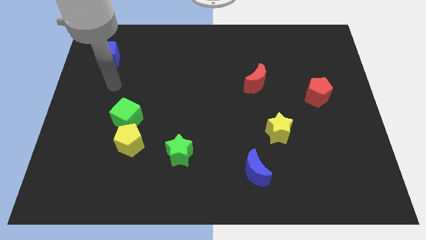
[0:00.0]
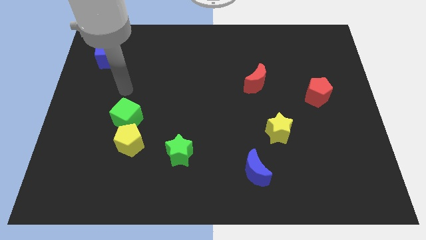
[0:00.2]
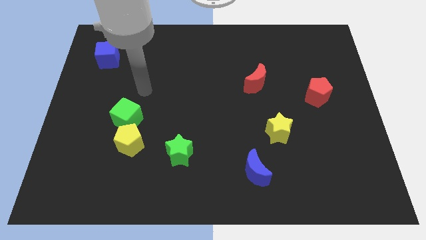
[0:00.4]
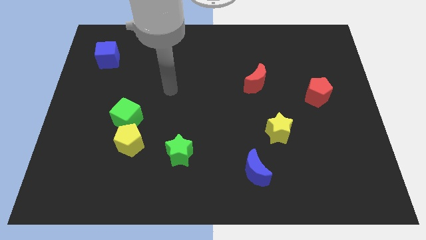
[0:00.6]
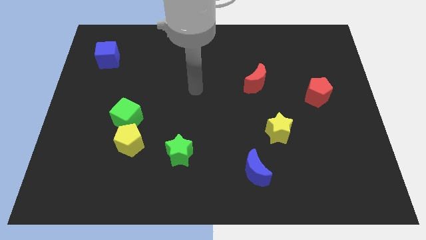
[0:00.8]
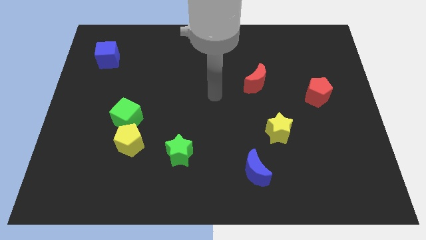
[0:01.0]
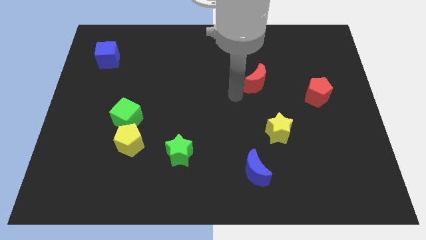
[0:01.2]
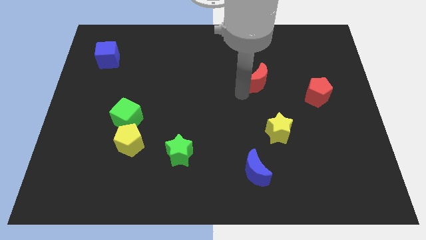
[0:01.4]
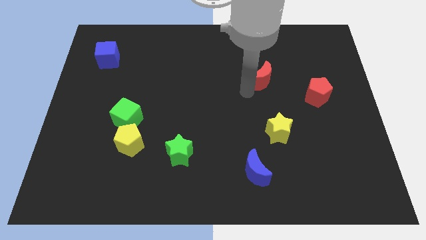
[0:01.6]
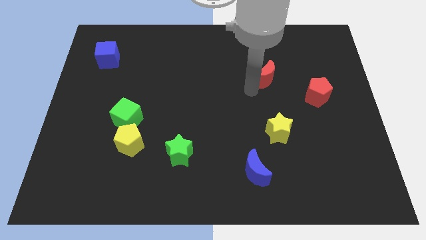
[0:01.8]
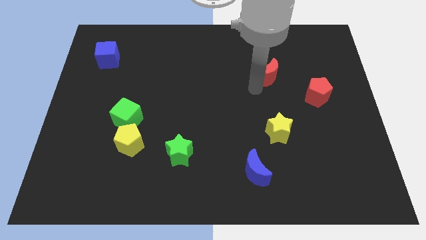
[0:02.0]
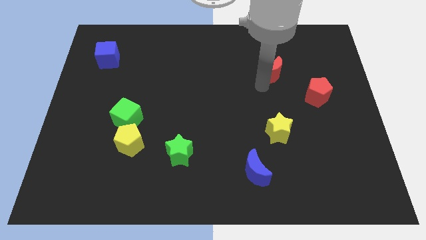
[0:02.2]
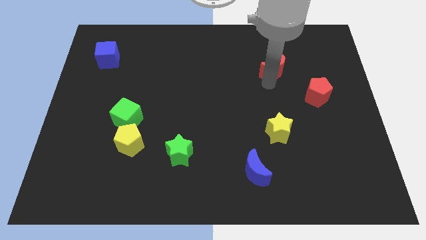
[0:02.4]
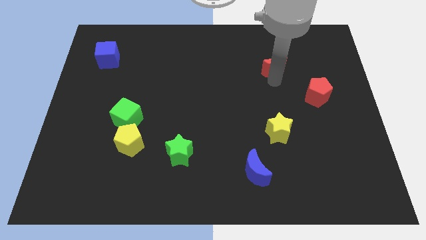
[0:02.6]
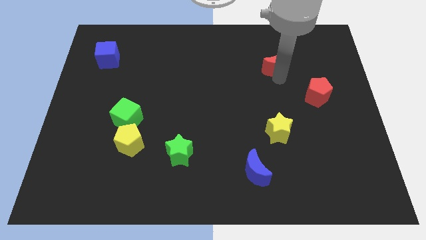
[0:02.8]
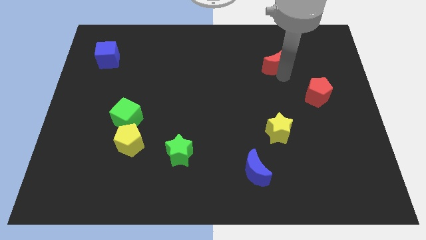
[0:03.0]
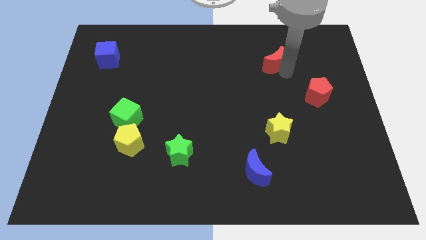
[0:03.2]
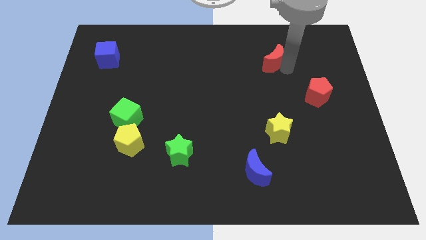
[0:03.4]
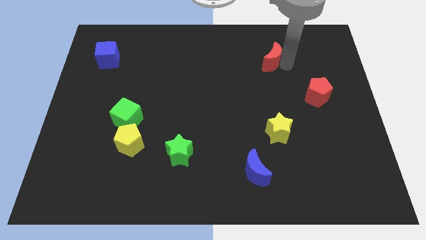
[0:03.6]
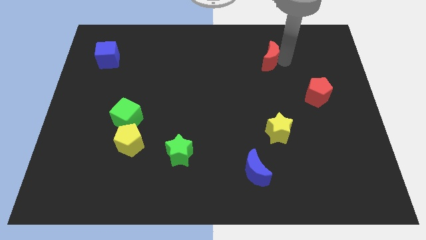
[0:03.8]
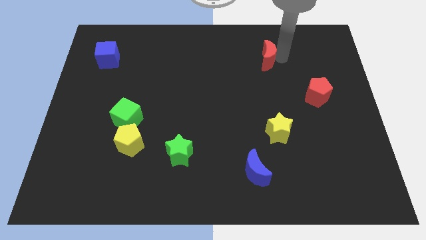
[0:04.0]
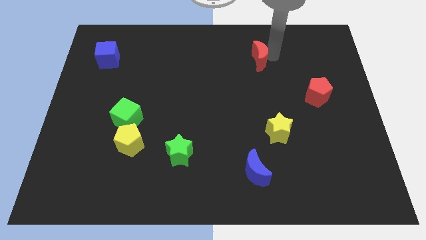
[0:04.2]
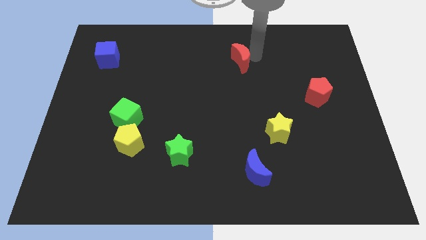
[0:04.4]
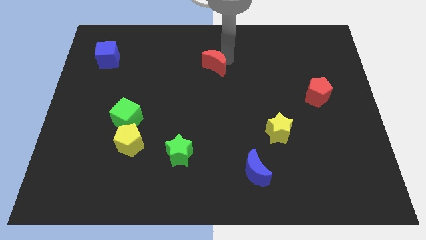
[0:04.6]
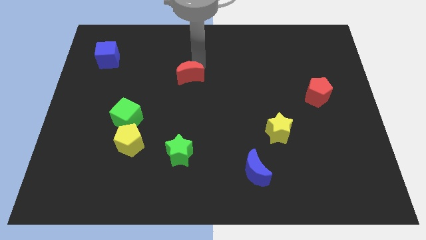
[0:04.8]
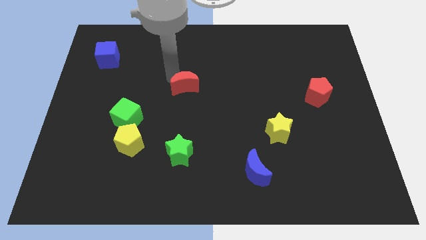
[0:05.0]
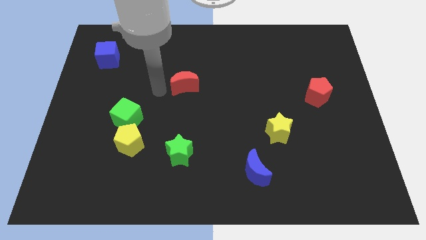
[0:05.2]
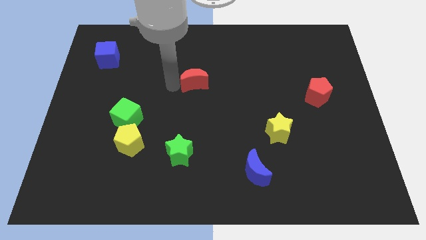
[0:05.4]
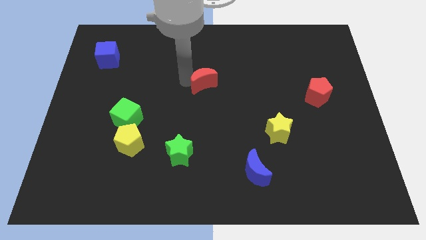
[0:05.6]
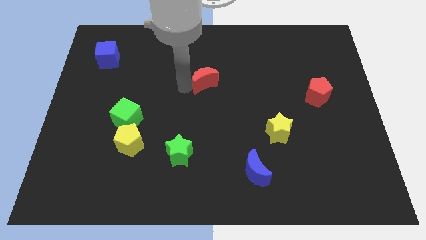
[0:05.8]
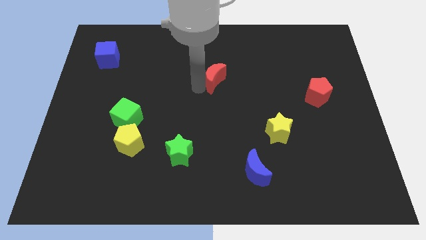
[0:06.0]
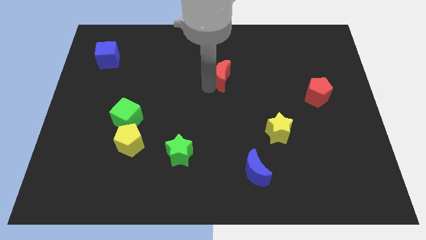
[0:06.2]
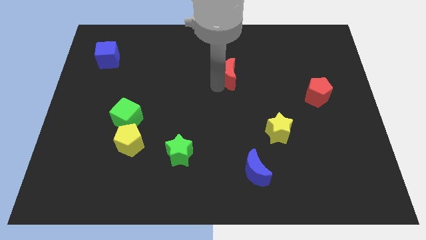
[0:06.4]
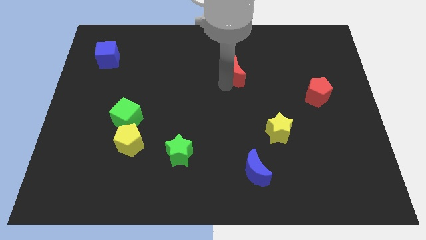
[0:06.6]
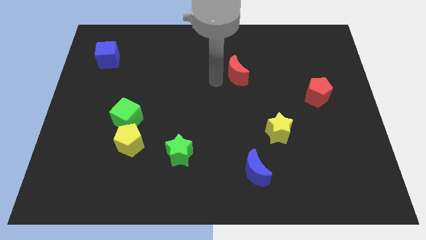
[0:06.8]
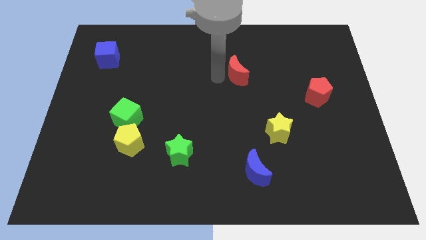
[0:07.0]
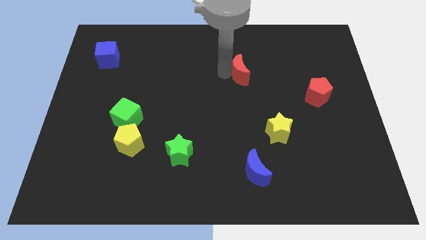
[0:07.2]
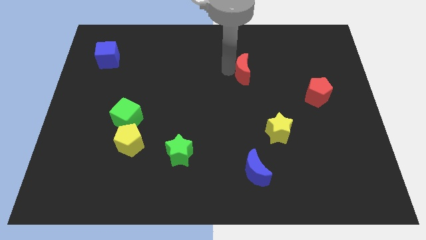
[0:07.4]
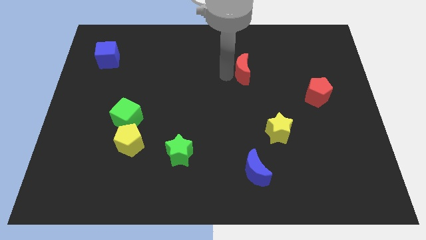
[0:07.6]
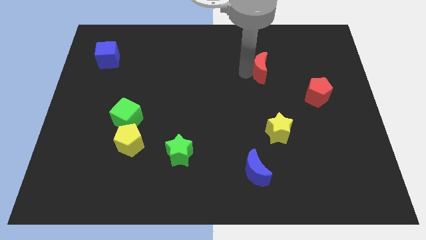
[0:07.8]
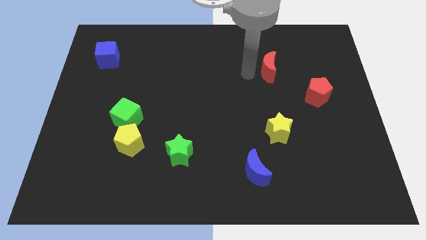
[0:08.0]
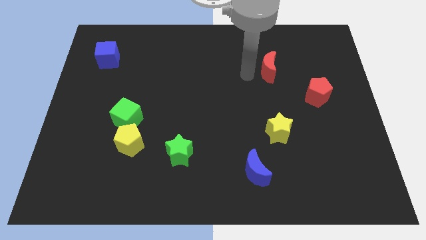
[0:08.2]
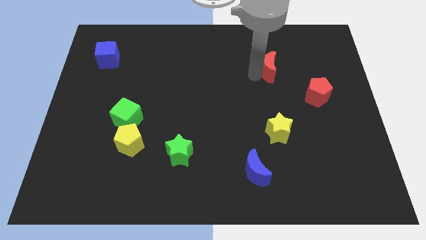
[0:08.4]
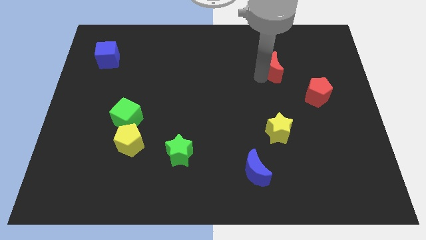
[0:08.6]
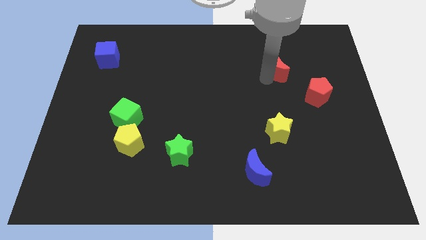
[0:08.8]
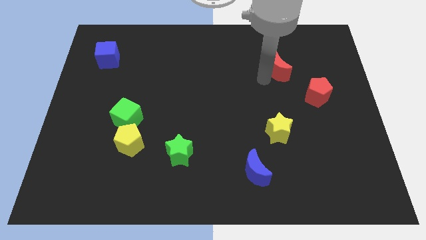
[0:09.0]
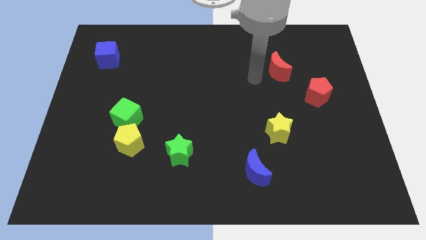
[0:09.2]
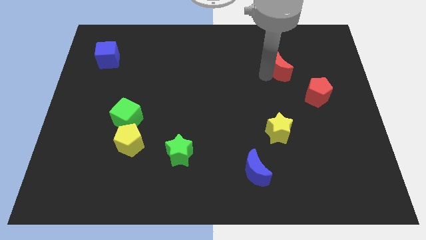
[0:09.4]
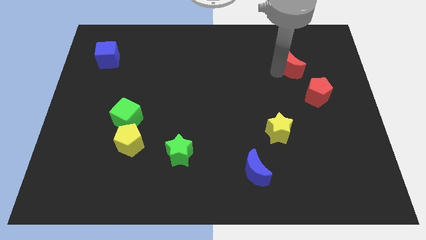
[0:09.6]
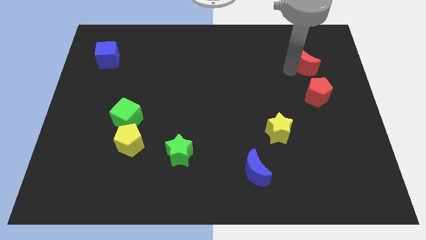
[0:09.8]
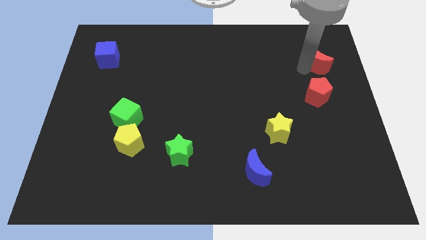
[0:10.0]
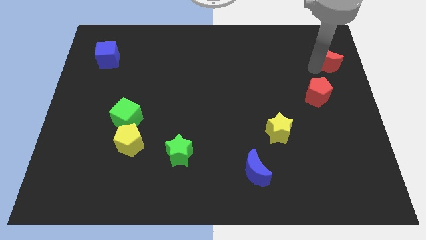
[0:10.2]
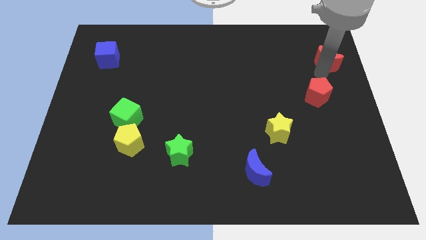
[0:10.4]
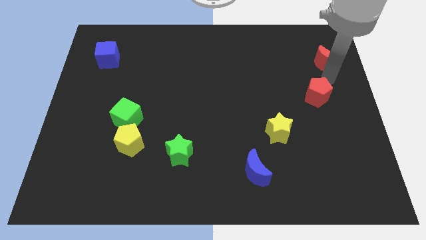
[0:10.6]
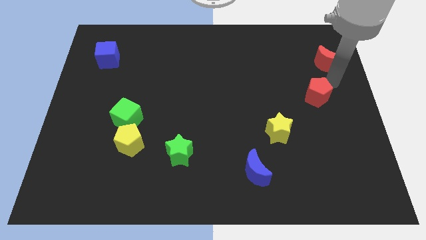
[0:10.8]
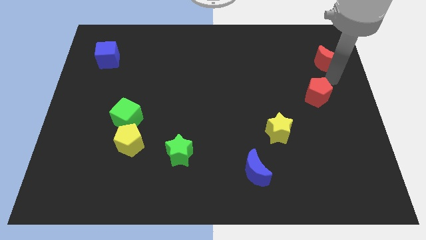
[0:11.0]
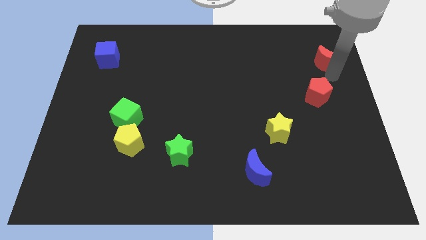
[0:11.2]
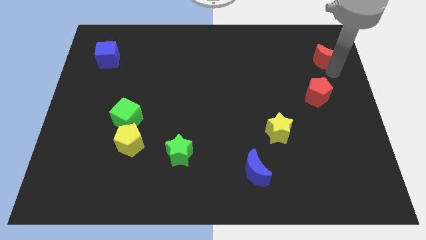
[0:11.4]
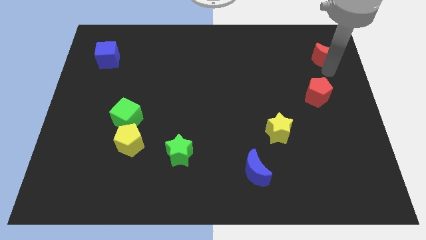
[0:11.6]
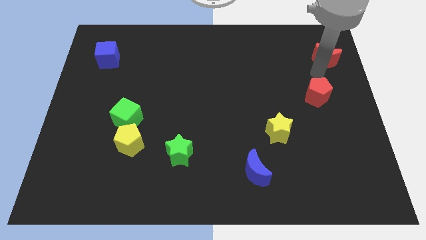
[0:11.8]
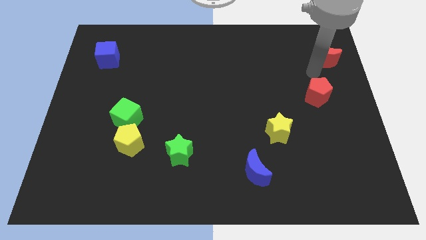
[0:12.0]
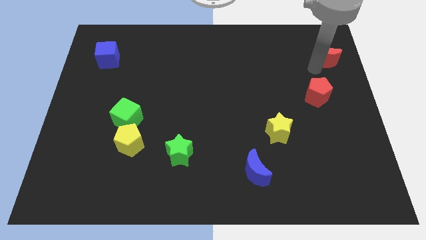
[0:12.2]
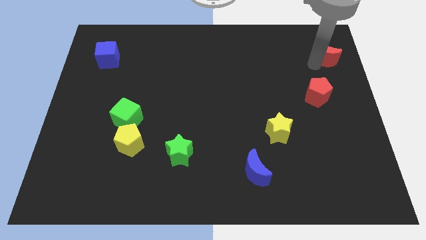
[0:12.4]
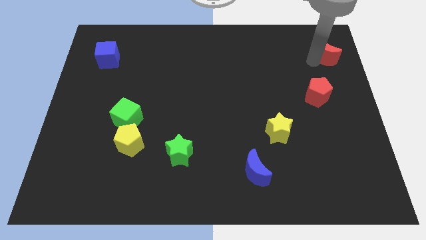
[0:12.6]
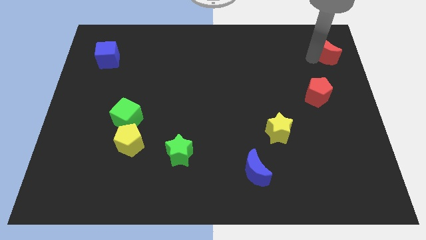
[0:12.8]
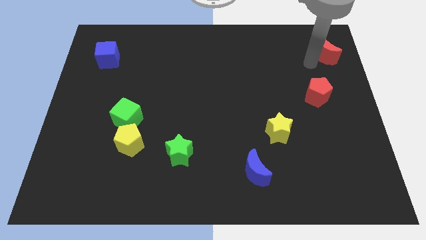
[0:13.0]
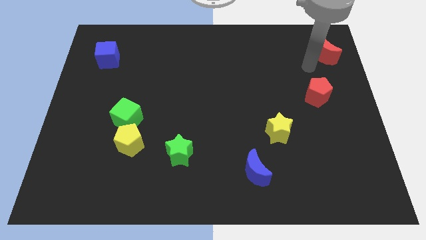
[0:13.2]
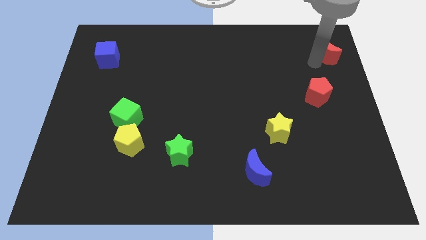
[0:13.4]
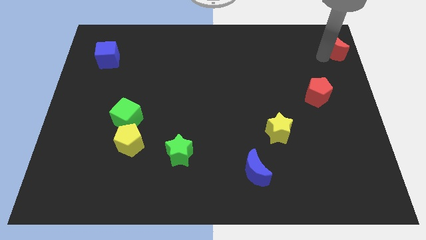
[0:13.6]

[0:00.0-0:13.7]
slide the red moon to the top right
